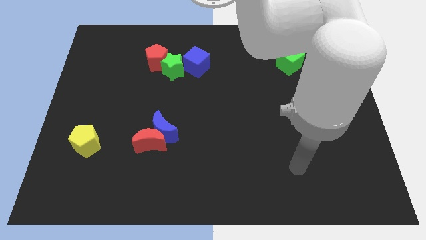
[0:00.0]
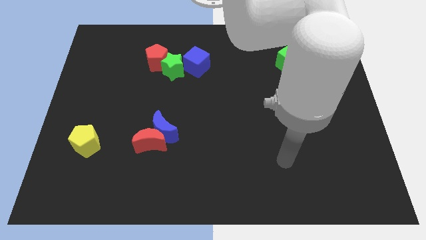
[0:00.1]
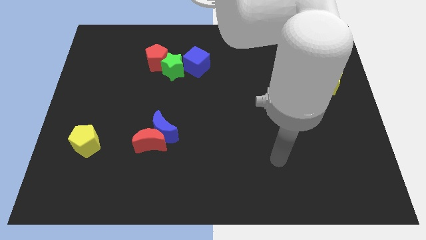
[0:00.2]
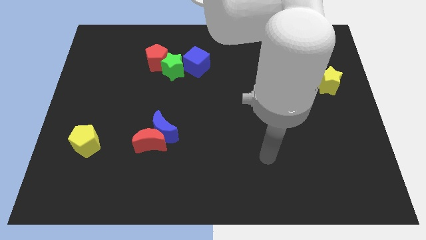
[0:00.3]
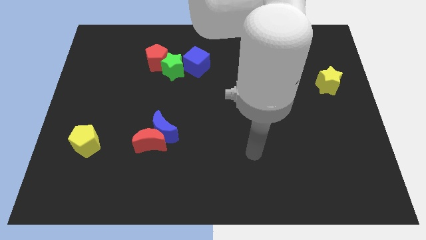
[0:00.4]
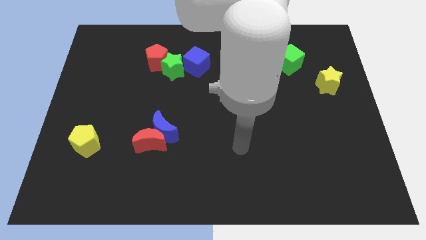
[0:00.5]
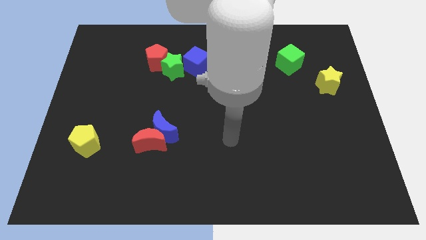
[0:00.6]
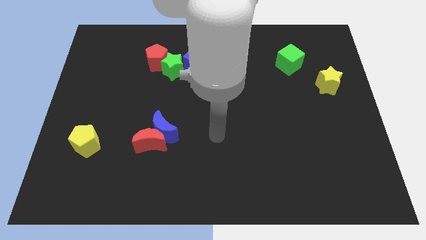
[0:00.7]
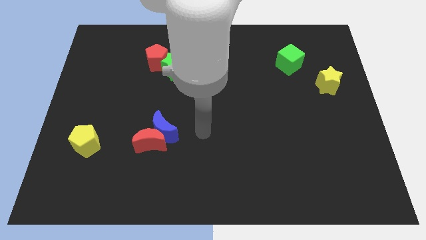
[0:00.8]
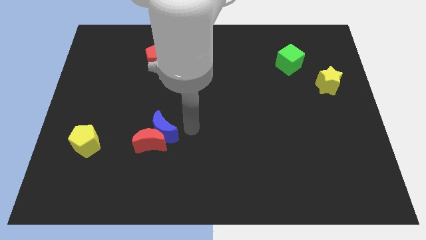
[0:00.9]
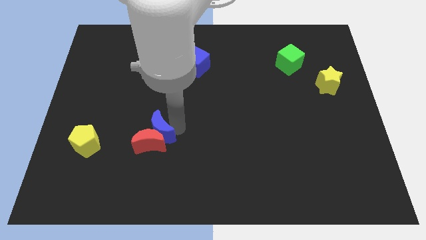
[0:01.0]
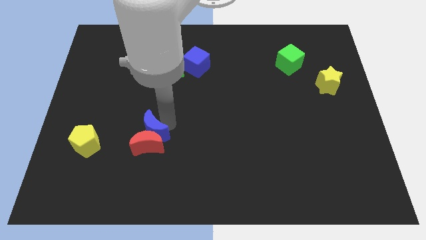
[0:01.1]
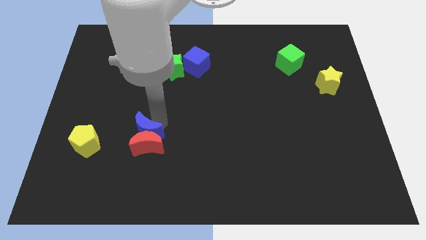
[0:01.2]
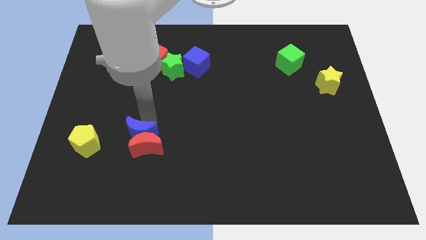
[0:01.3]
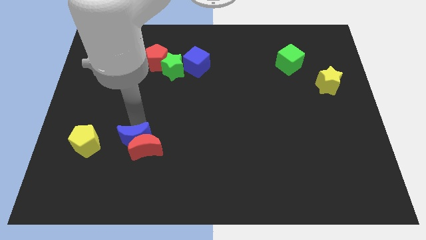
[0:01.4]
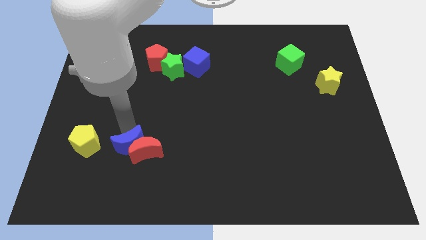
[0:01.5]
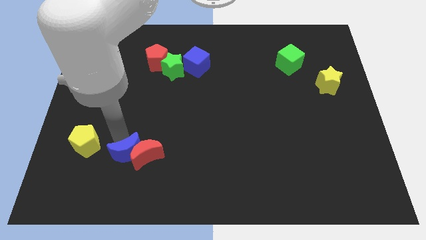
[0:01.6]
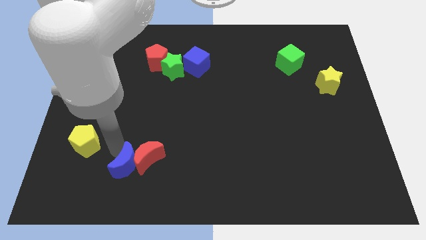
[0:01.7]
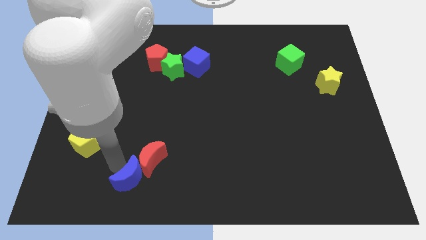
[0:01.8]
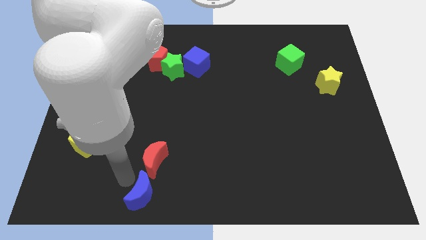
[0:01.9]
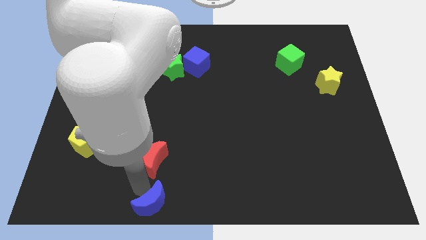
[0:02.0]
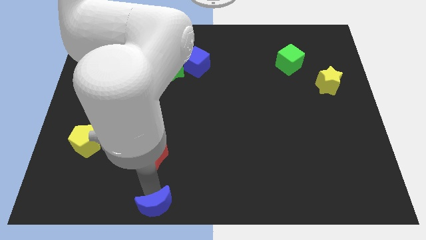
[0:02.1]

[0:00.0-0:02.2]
pull the red moon apart from the blue moon

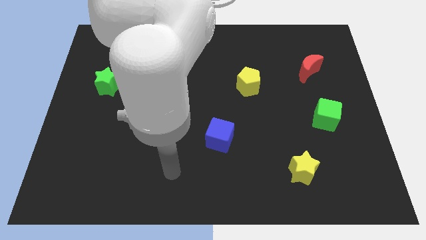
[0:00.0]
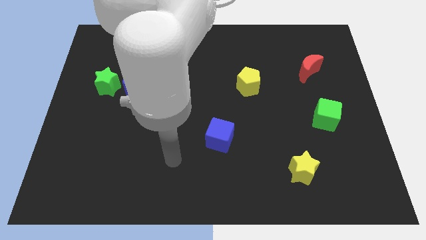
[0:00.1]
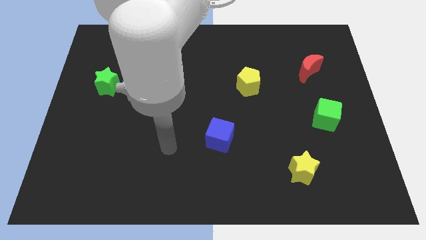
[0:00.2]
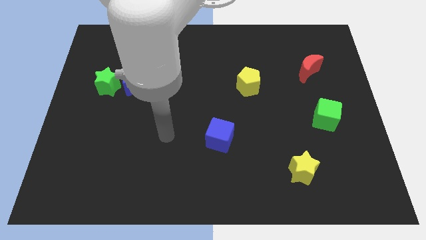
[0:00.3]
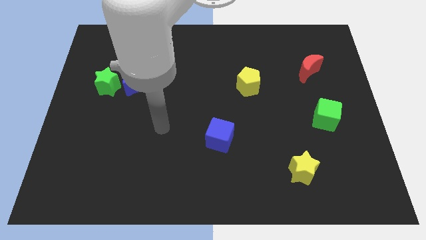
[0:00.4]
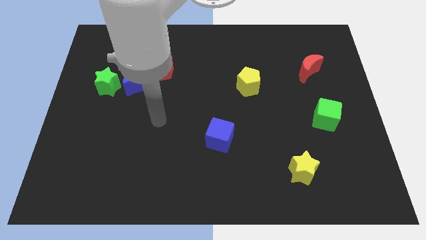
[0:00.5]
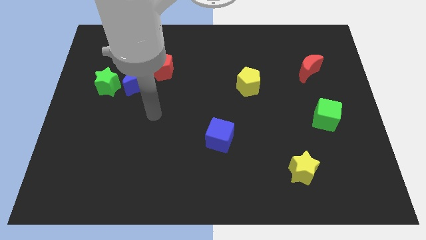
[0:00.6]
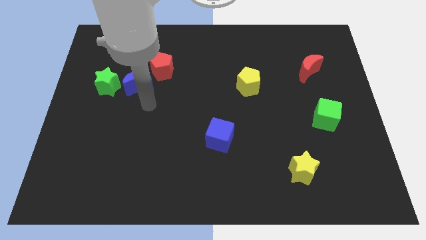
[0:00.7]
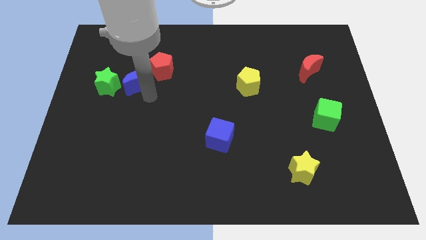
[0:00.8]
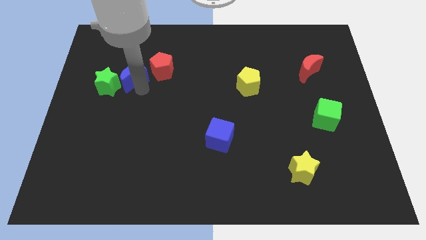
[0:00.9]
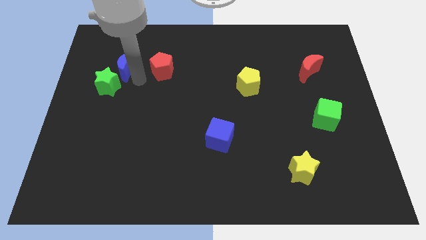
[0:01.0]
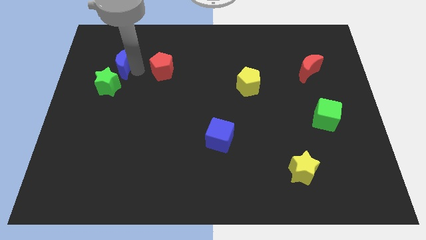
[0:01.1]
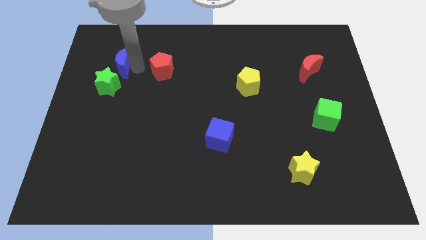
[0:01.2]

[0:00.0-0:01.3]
separate the red pentagon from the blue moon

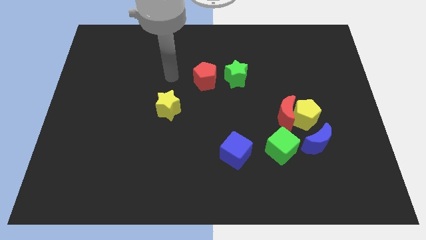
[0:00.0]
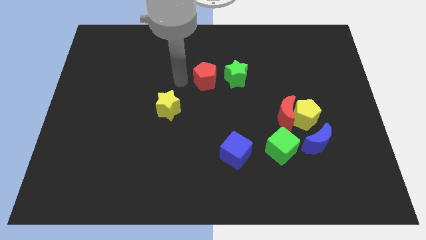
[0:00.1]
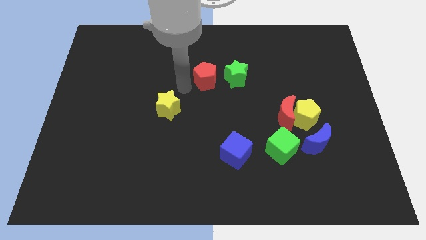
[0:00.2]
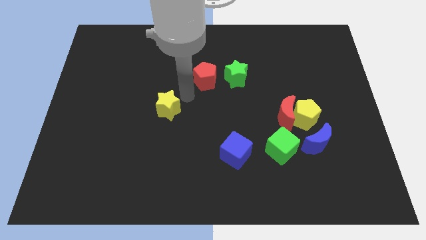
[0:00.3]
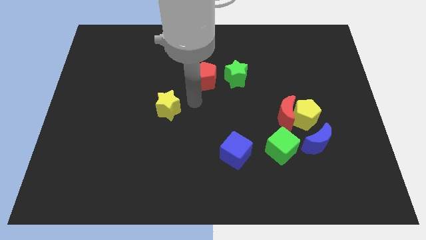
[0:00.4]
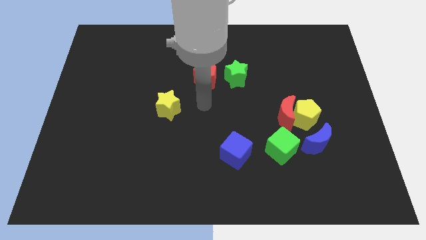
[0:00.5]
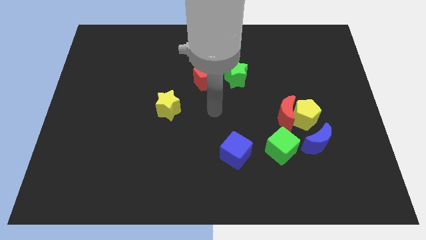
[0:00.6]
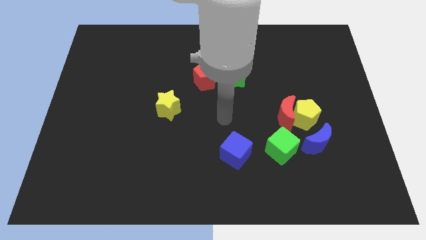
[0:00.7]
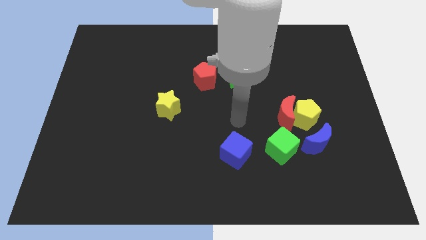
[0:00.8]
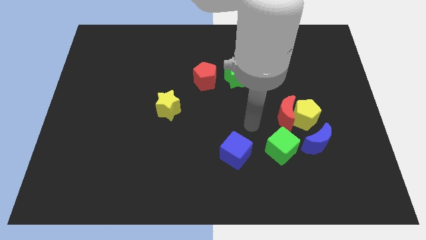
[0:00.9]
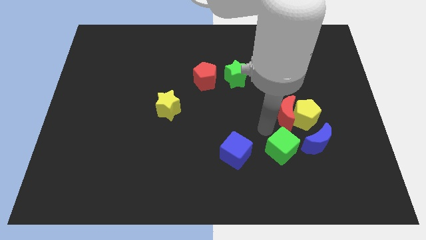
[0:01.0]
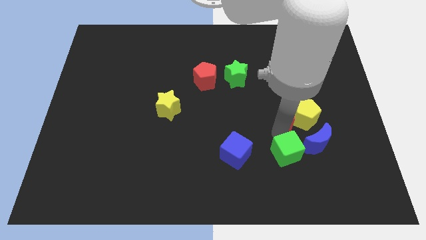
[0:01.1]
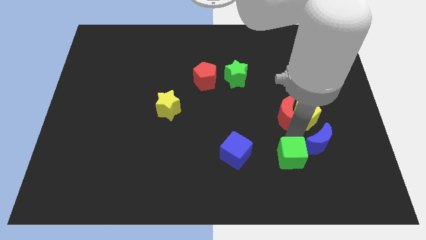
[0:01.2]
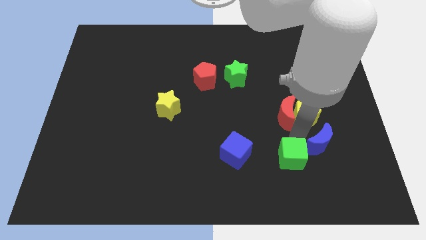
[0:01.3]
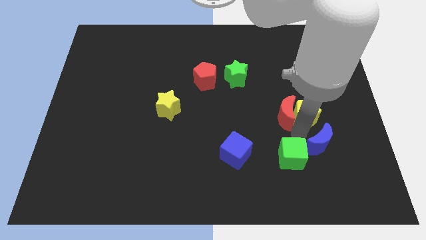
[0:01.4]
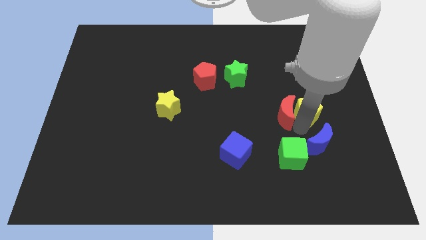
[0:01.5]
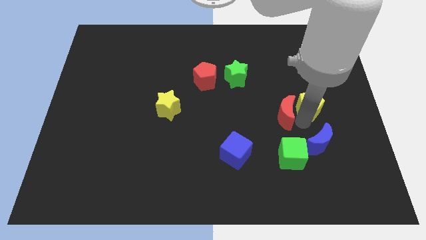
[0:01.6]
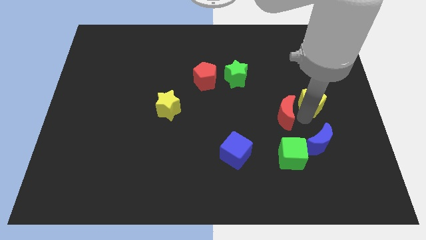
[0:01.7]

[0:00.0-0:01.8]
separate the yellow pentagon from the group

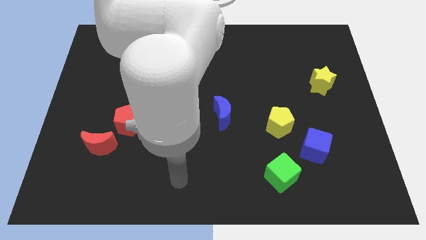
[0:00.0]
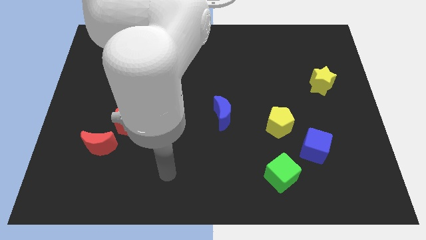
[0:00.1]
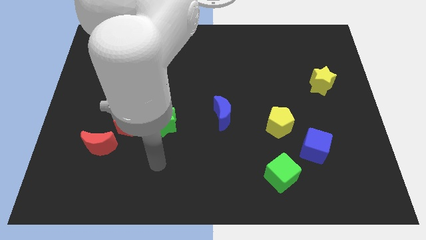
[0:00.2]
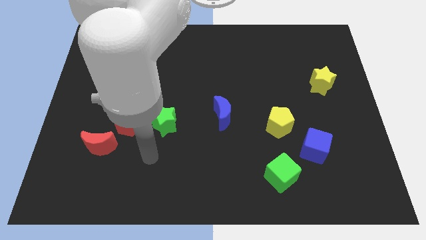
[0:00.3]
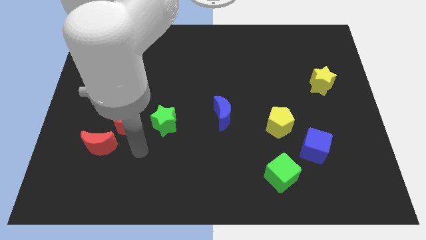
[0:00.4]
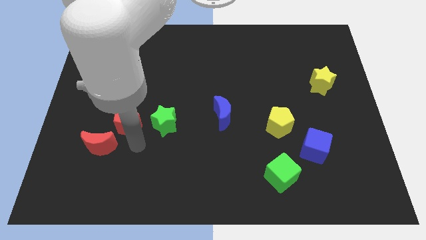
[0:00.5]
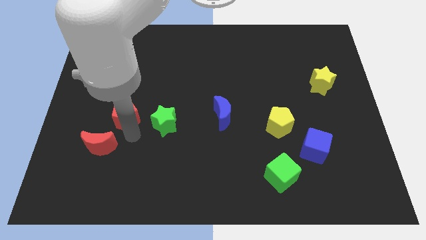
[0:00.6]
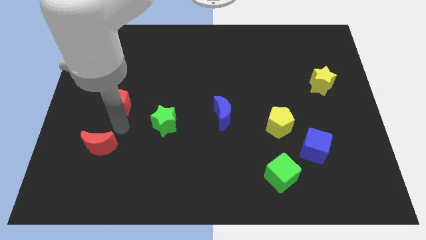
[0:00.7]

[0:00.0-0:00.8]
separate the red moon from the red pentagon

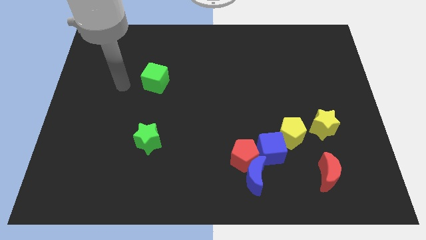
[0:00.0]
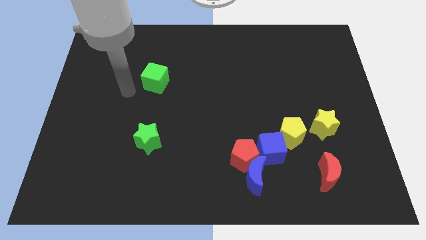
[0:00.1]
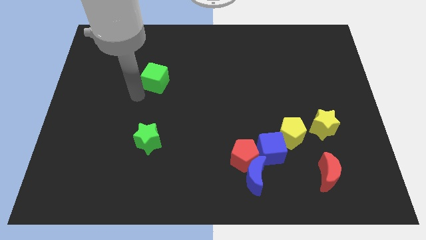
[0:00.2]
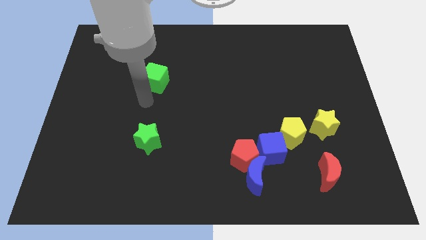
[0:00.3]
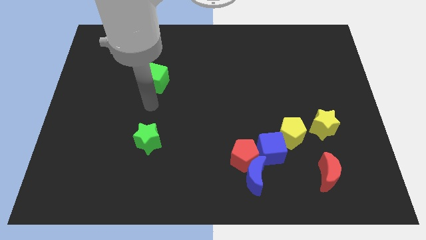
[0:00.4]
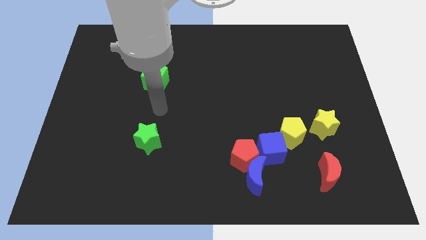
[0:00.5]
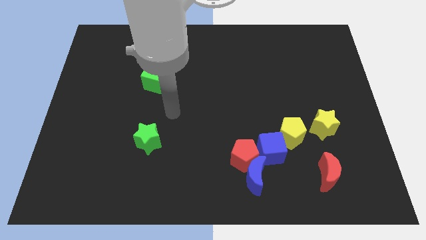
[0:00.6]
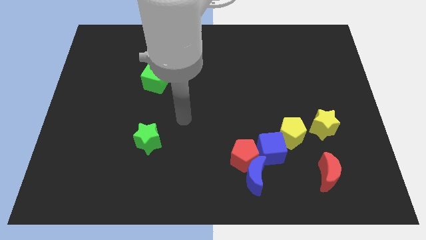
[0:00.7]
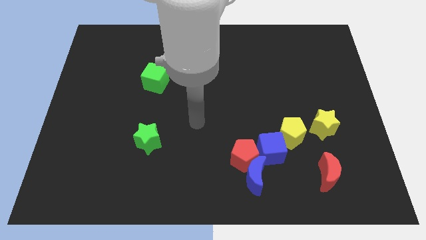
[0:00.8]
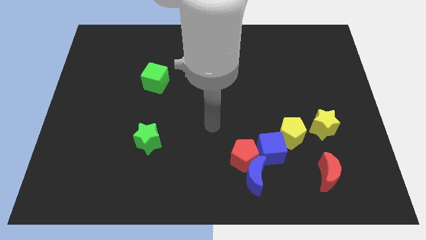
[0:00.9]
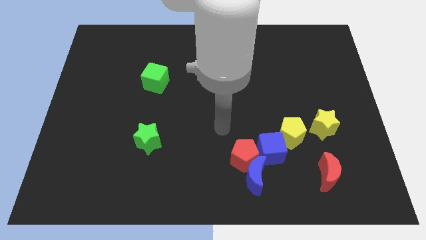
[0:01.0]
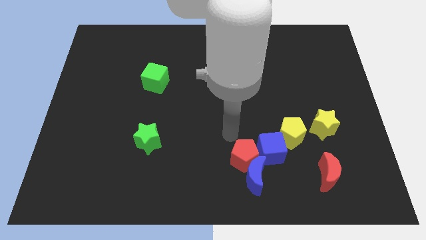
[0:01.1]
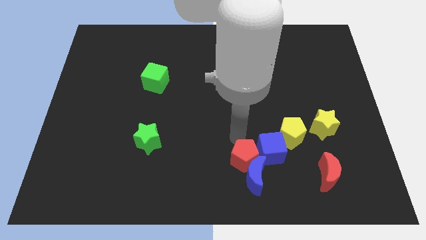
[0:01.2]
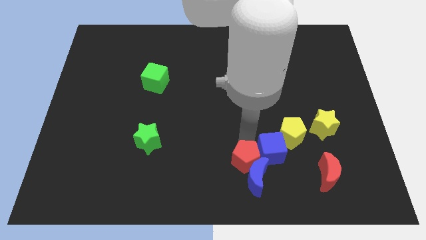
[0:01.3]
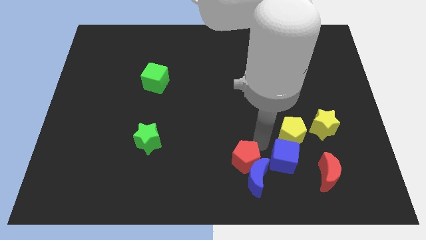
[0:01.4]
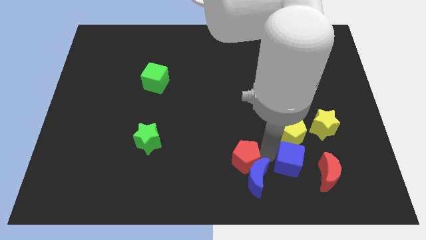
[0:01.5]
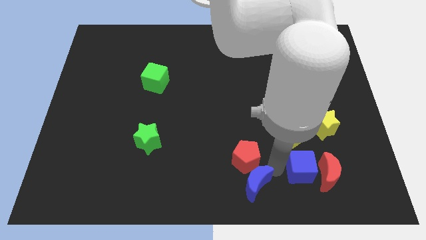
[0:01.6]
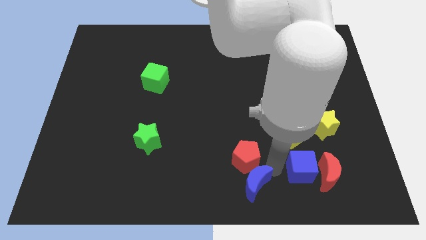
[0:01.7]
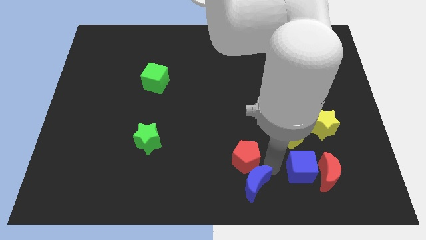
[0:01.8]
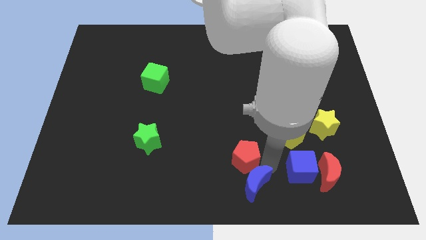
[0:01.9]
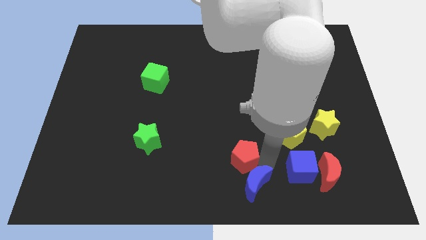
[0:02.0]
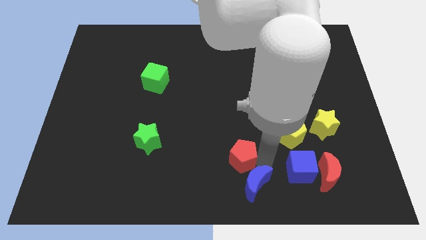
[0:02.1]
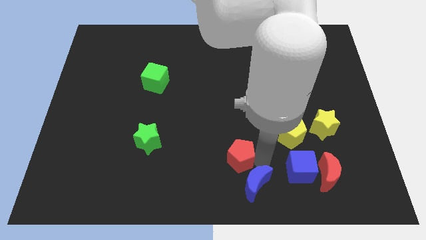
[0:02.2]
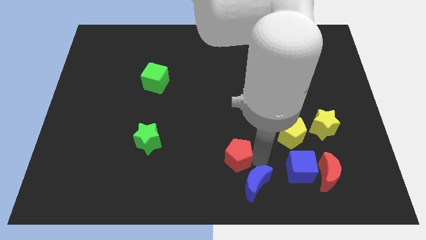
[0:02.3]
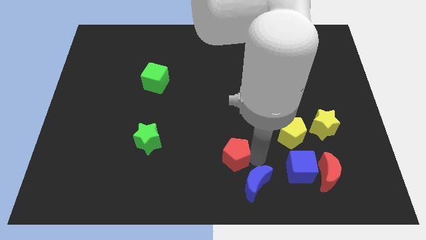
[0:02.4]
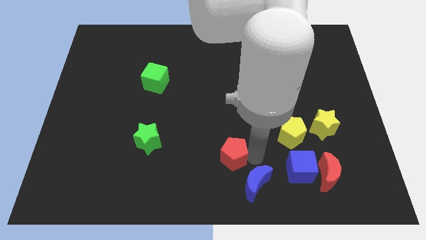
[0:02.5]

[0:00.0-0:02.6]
pull the red pentagon apart from the blue moon and blue cube

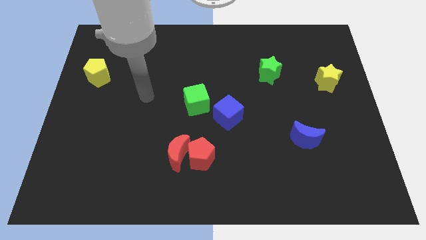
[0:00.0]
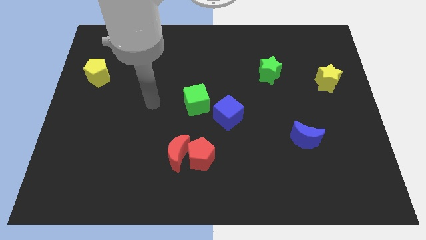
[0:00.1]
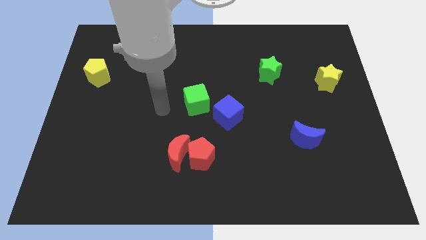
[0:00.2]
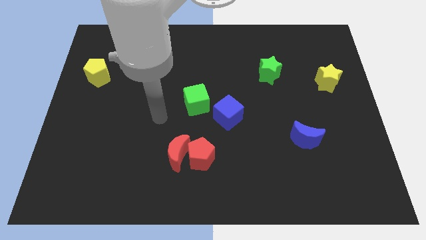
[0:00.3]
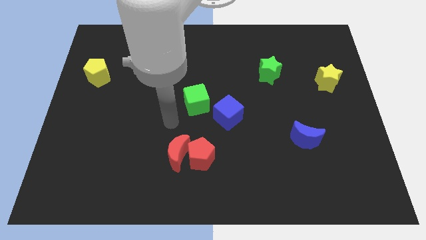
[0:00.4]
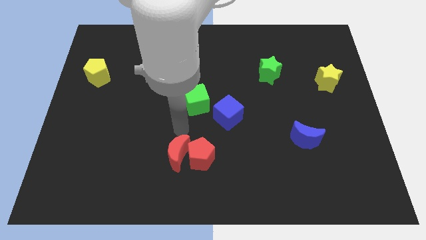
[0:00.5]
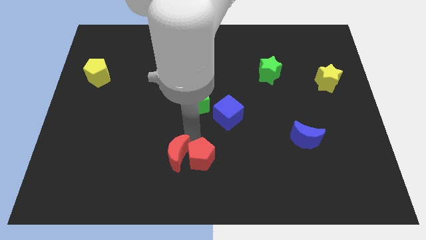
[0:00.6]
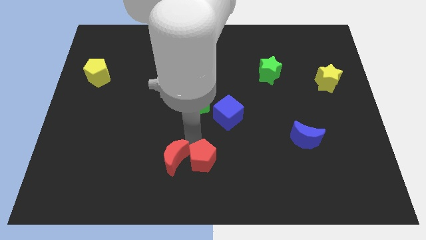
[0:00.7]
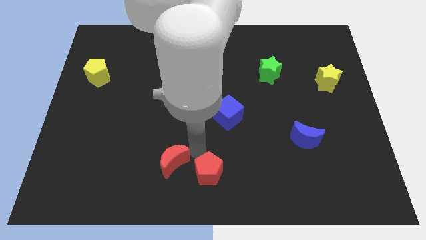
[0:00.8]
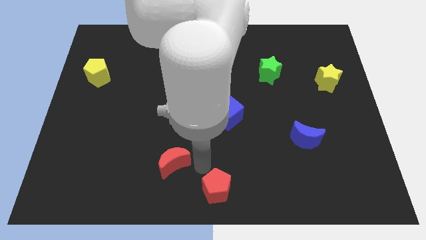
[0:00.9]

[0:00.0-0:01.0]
pull the red moon apart from the red pentagon
